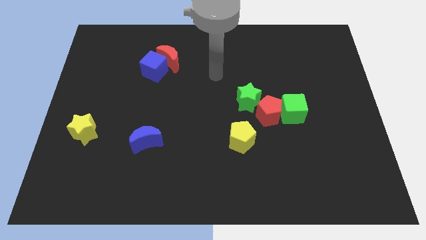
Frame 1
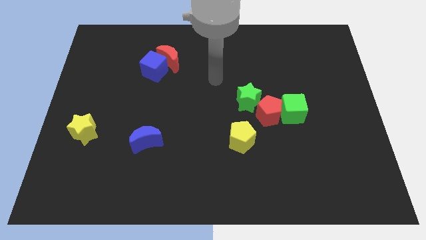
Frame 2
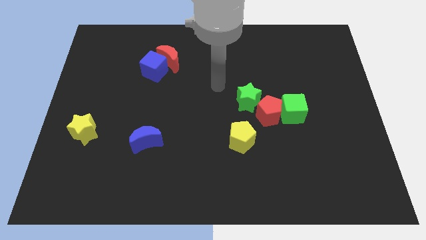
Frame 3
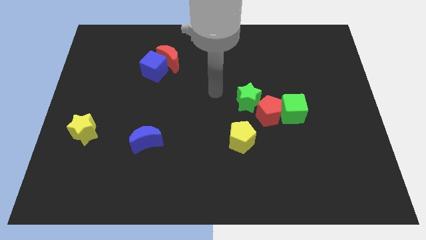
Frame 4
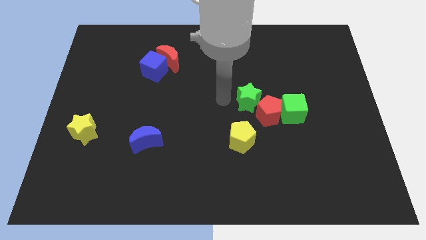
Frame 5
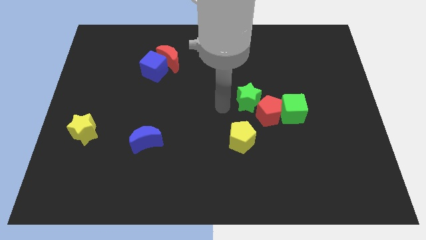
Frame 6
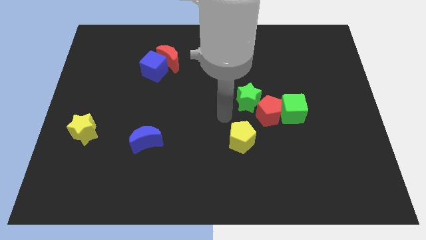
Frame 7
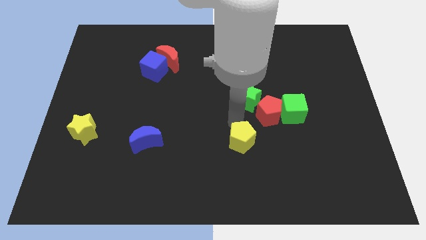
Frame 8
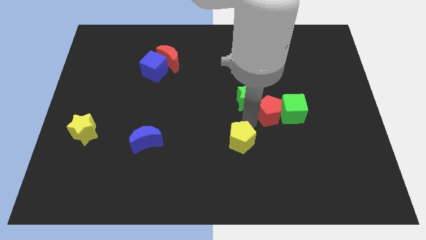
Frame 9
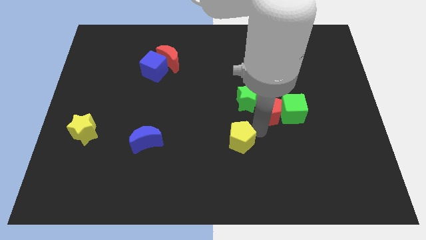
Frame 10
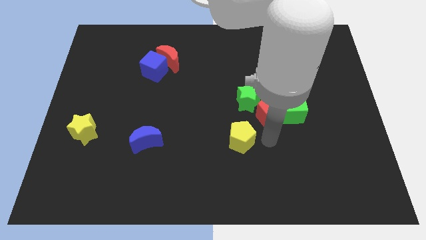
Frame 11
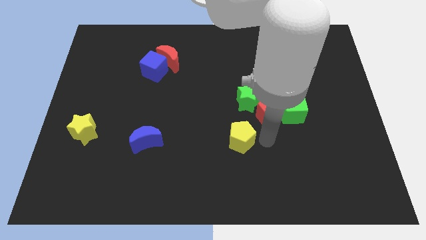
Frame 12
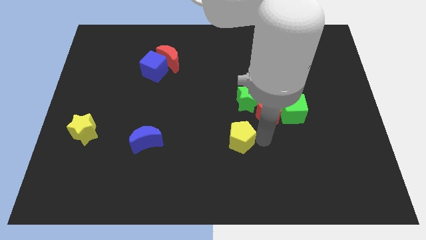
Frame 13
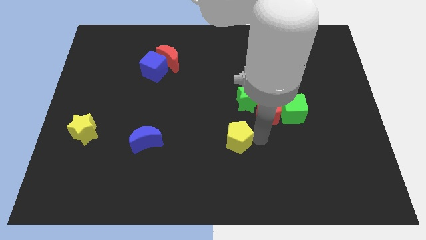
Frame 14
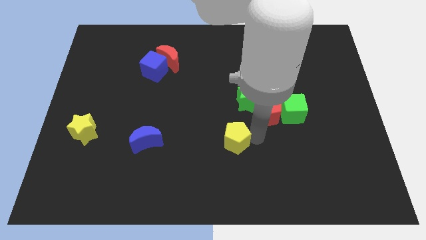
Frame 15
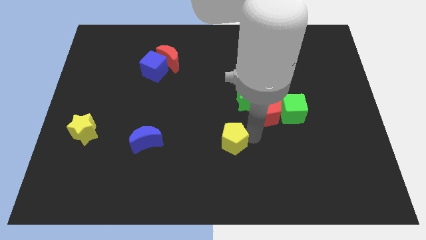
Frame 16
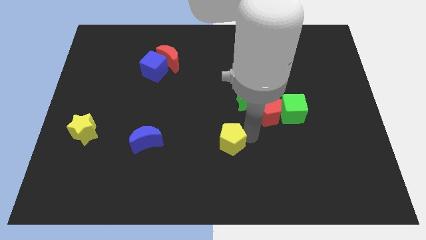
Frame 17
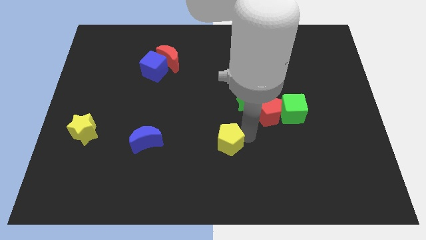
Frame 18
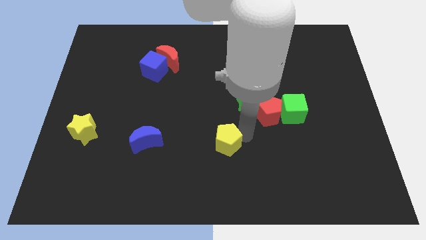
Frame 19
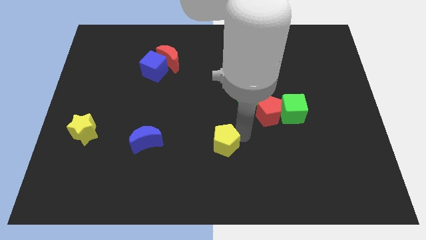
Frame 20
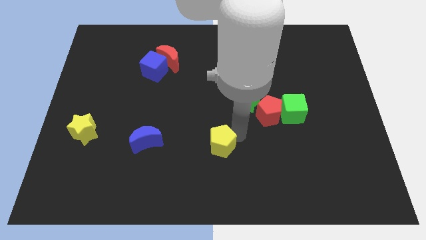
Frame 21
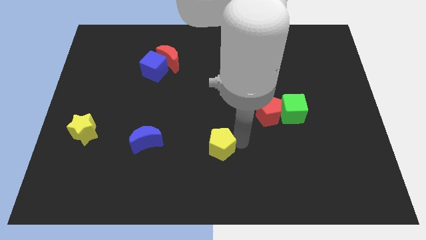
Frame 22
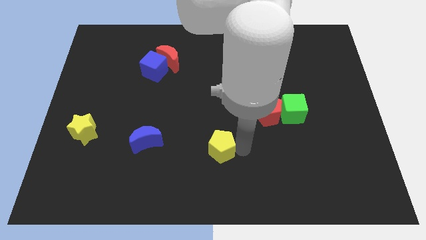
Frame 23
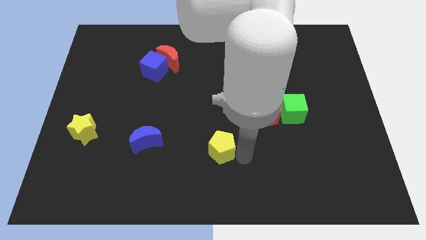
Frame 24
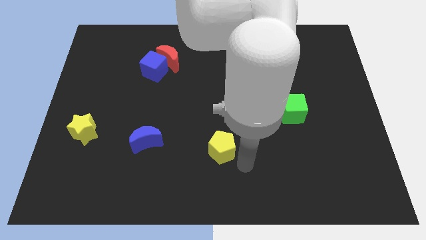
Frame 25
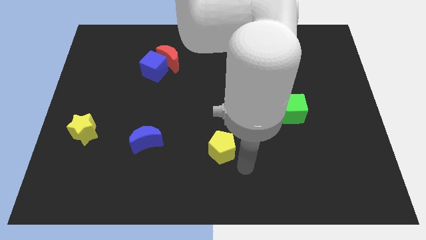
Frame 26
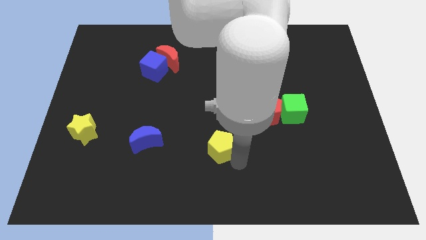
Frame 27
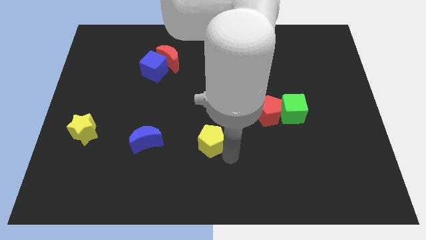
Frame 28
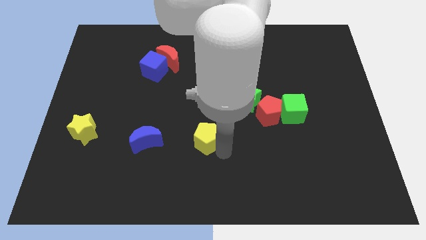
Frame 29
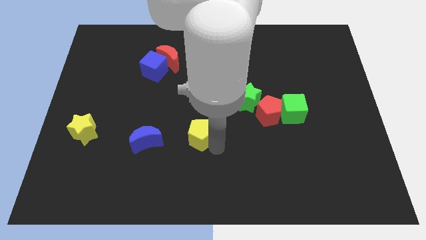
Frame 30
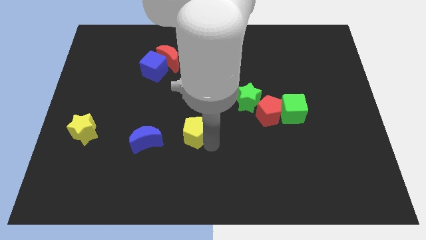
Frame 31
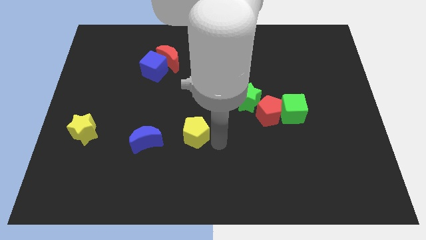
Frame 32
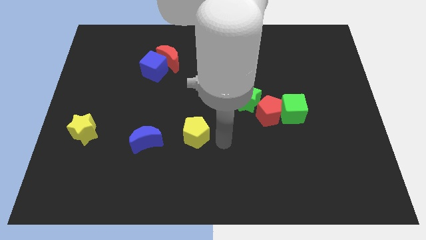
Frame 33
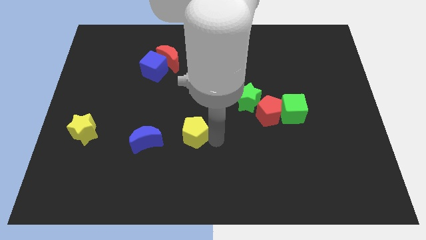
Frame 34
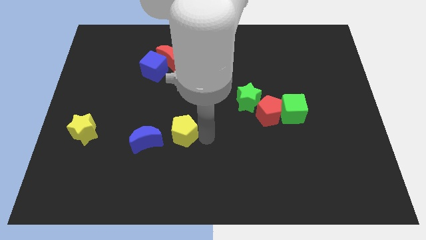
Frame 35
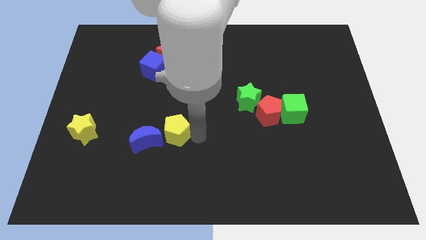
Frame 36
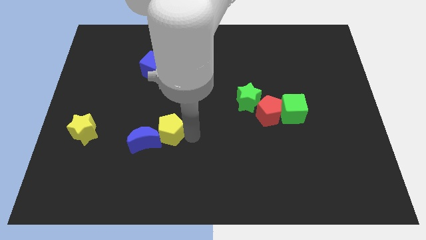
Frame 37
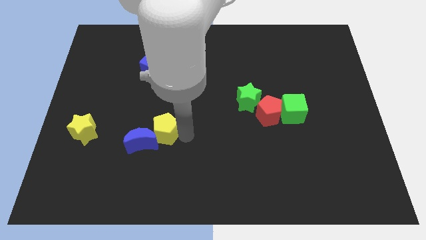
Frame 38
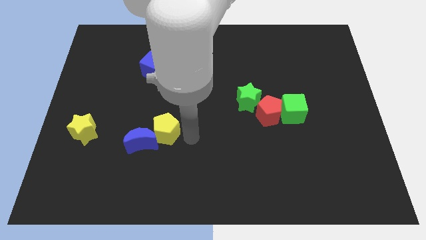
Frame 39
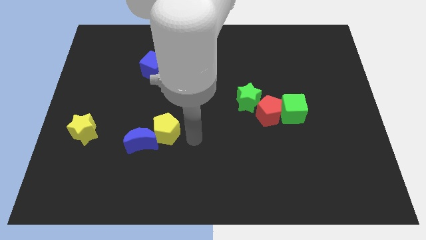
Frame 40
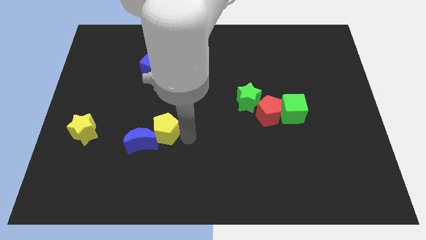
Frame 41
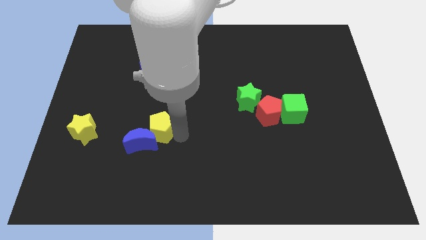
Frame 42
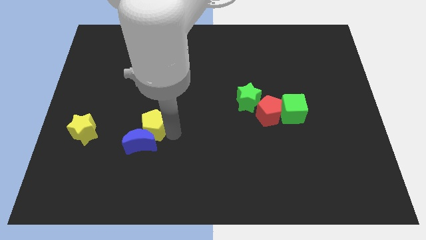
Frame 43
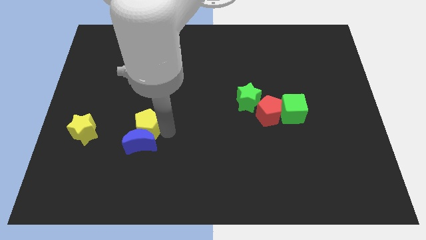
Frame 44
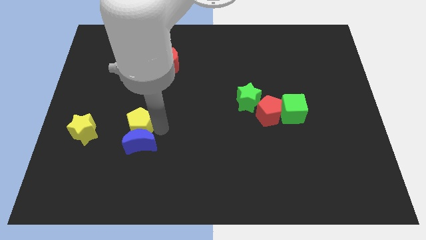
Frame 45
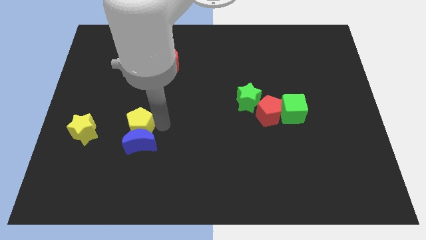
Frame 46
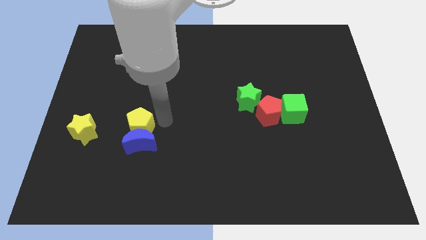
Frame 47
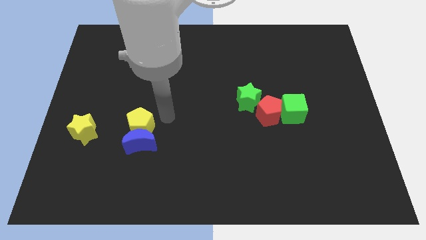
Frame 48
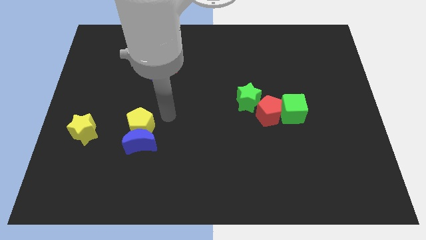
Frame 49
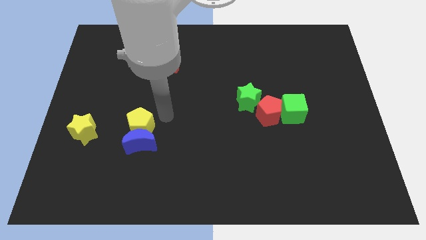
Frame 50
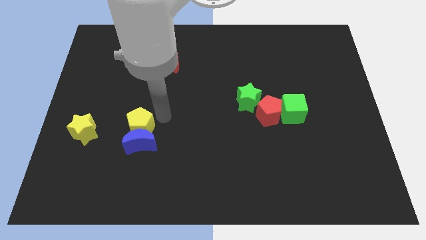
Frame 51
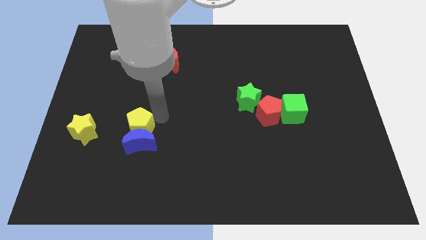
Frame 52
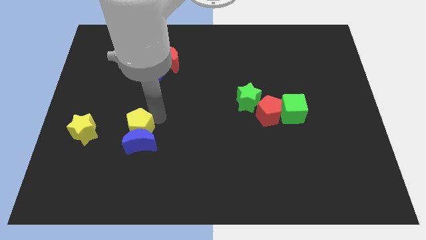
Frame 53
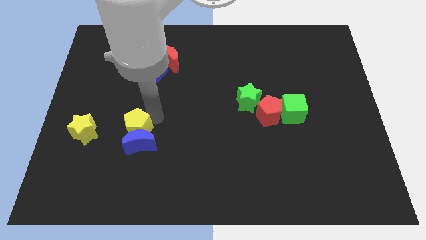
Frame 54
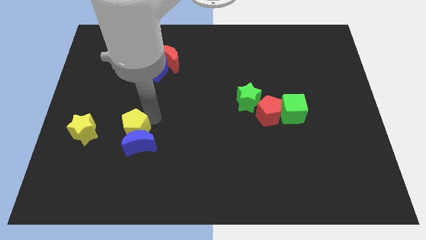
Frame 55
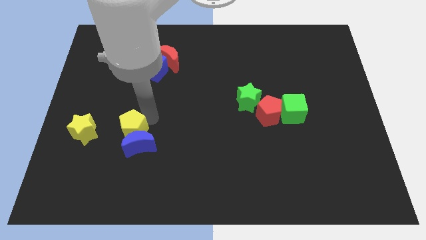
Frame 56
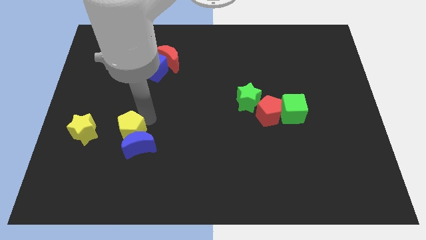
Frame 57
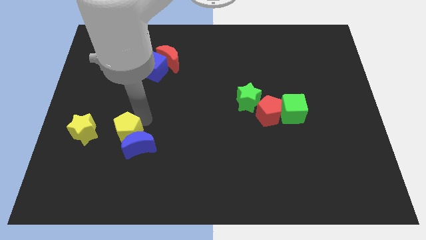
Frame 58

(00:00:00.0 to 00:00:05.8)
put the yellow pentagon to the left of the blue moon

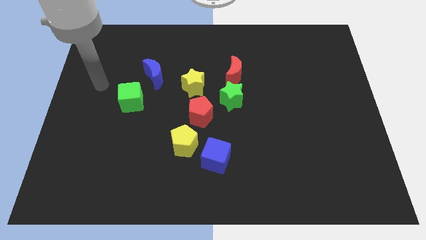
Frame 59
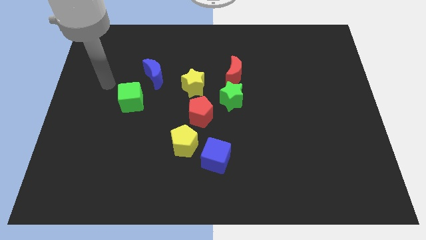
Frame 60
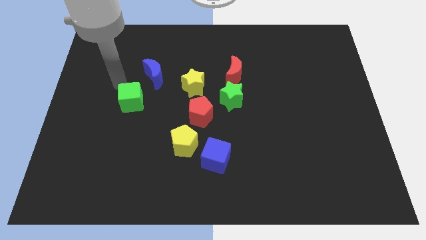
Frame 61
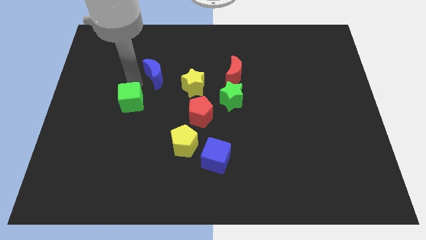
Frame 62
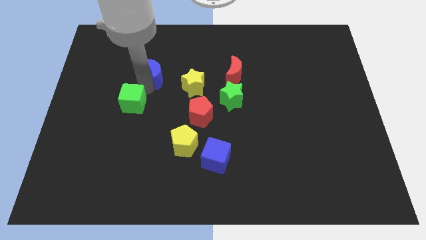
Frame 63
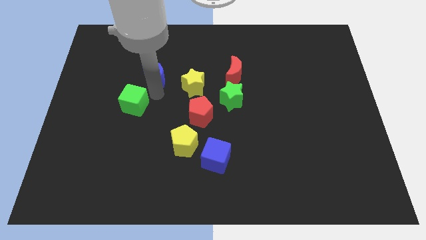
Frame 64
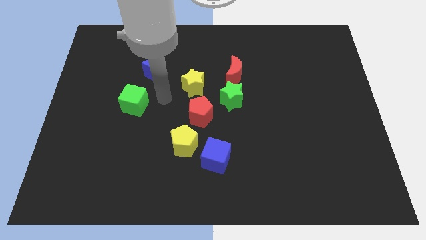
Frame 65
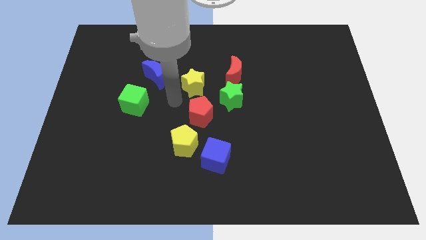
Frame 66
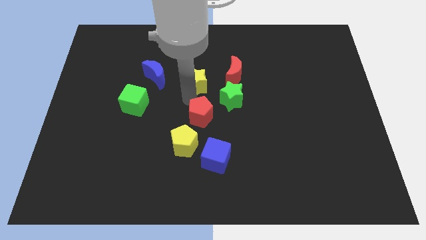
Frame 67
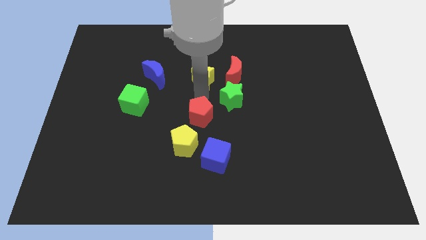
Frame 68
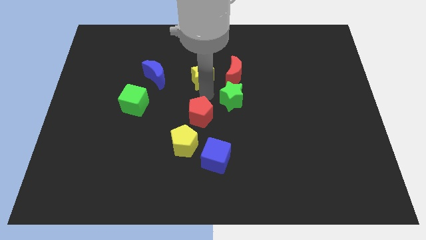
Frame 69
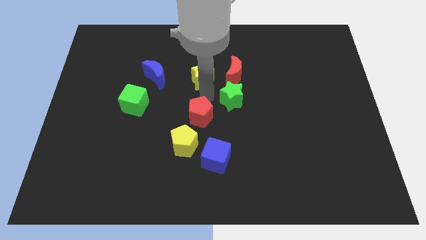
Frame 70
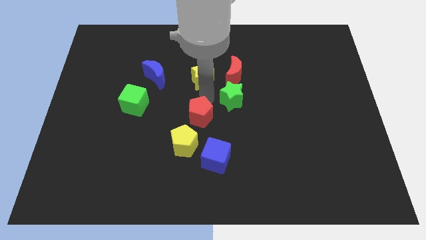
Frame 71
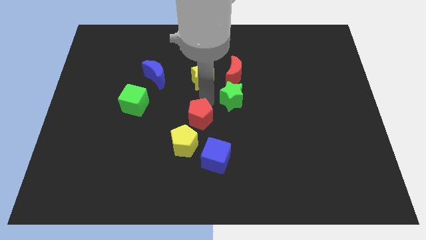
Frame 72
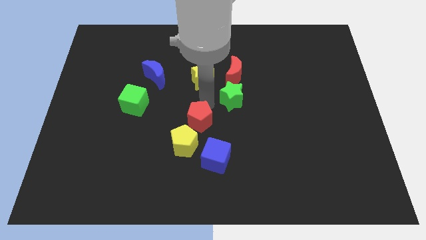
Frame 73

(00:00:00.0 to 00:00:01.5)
slide the red pentagon to the top left of the blue cube
